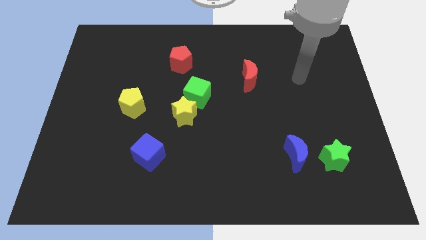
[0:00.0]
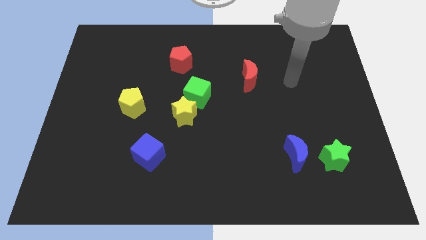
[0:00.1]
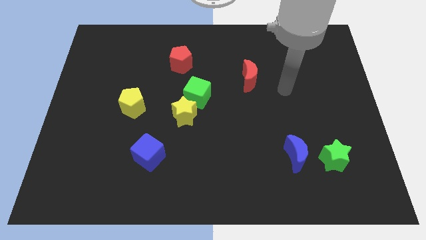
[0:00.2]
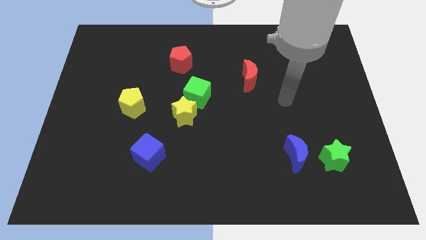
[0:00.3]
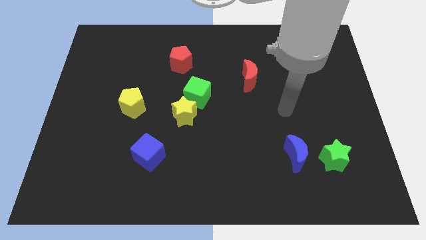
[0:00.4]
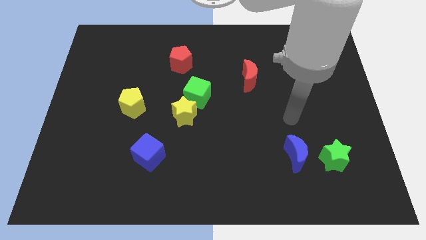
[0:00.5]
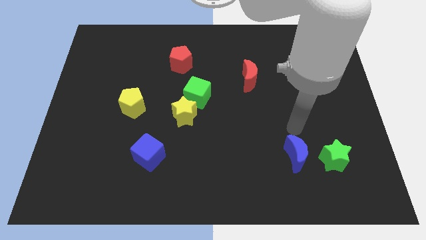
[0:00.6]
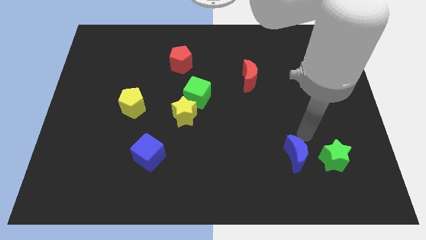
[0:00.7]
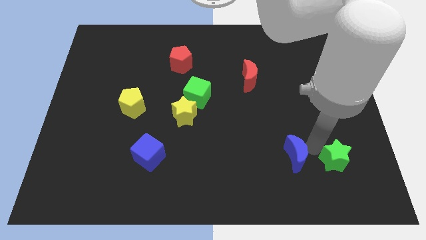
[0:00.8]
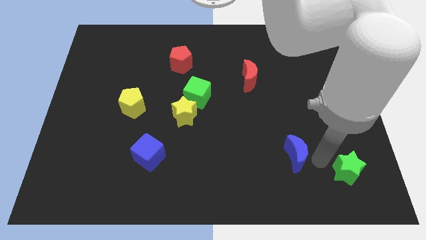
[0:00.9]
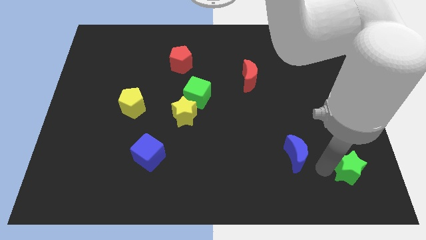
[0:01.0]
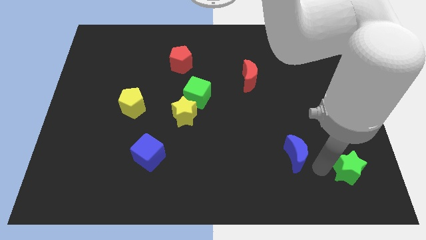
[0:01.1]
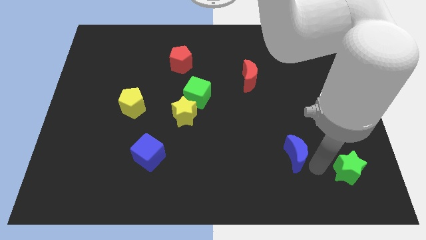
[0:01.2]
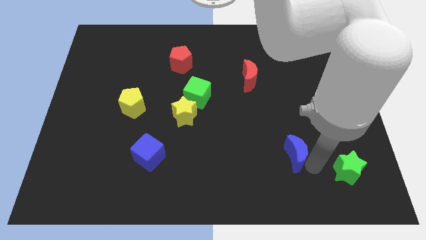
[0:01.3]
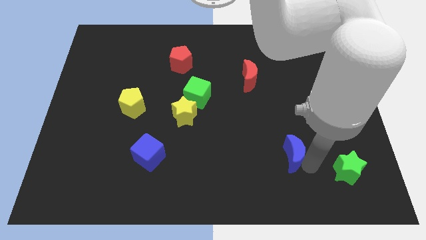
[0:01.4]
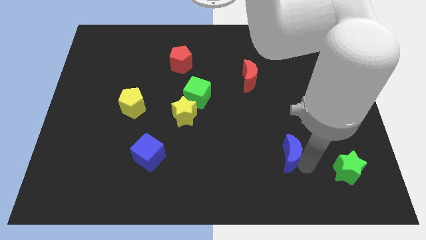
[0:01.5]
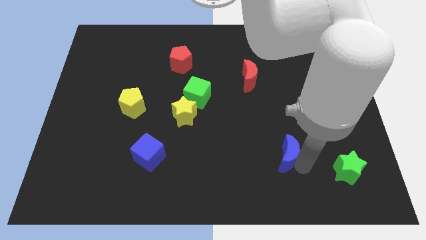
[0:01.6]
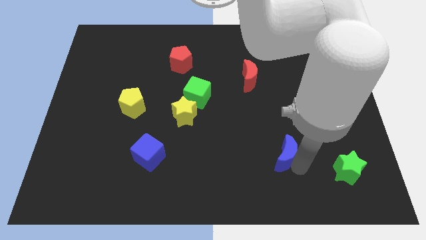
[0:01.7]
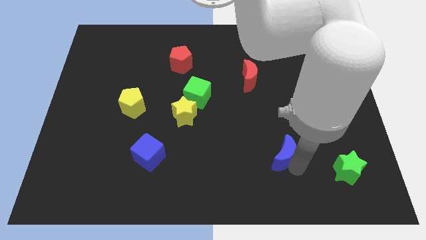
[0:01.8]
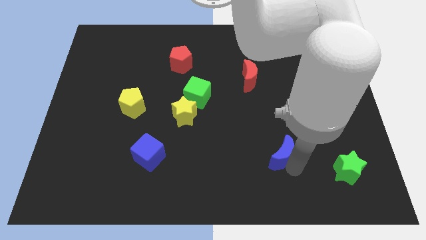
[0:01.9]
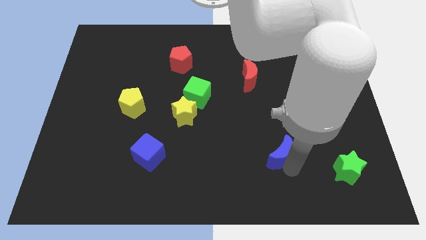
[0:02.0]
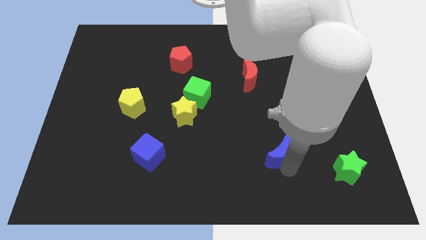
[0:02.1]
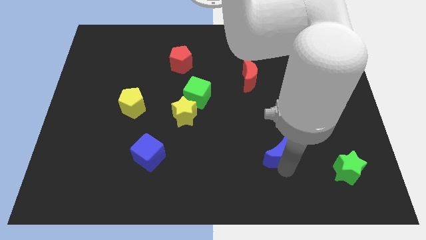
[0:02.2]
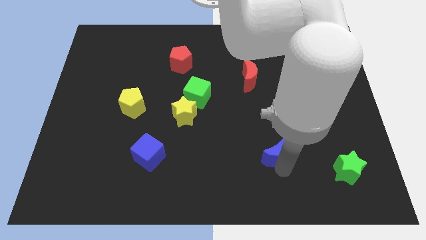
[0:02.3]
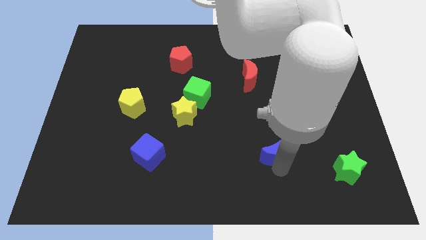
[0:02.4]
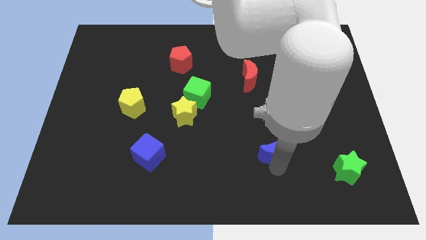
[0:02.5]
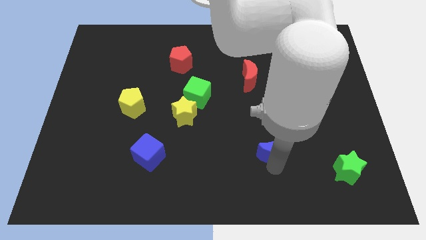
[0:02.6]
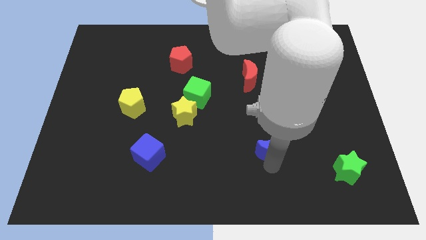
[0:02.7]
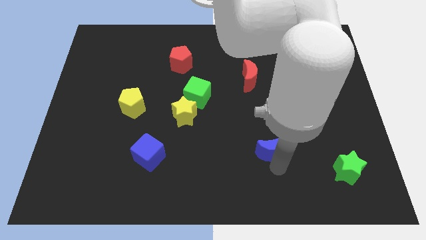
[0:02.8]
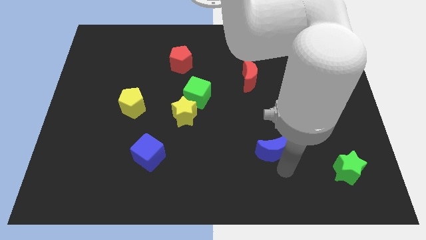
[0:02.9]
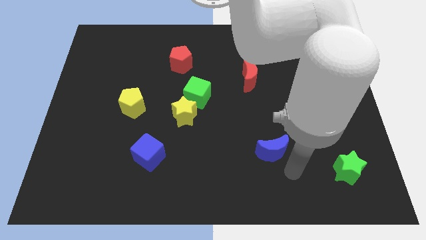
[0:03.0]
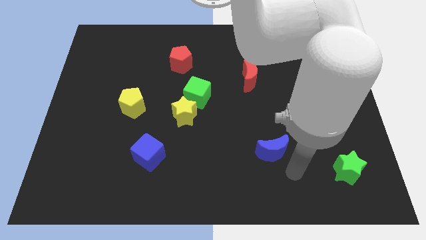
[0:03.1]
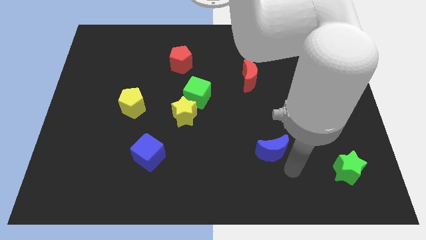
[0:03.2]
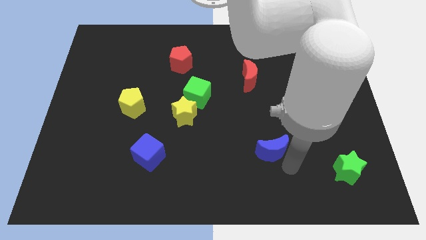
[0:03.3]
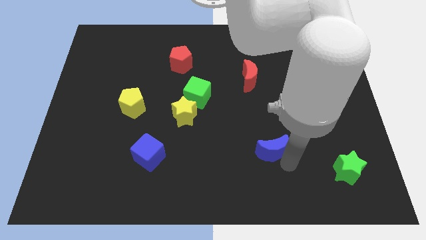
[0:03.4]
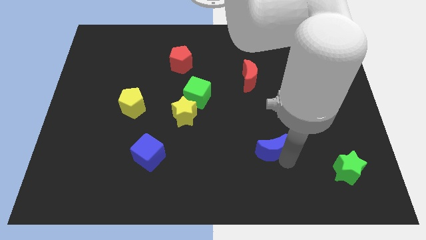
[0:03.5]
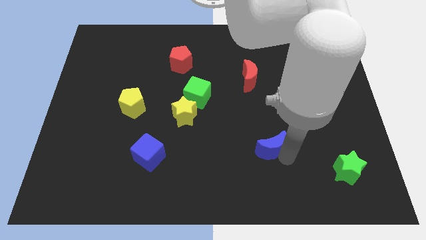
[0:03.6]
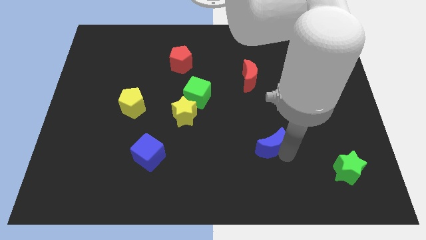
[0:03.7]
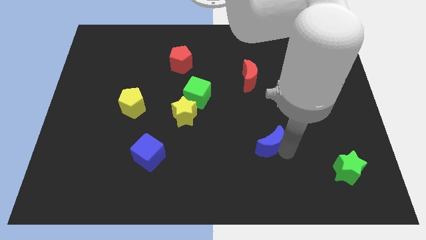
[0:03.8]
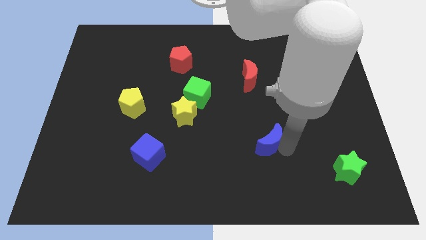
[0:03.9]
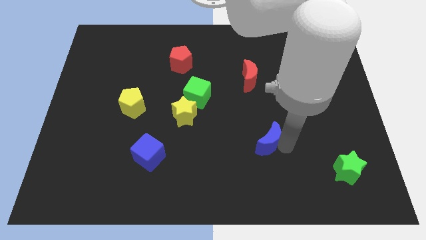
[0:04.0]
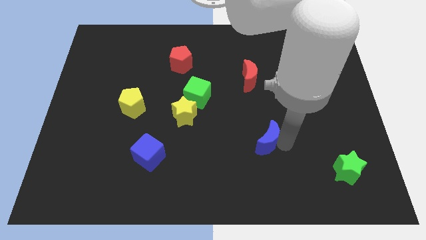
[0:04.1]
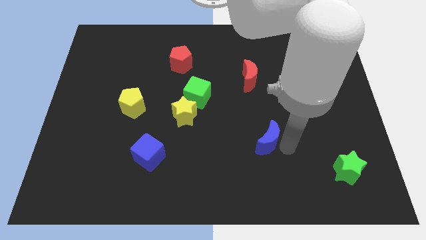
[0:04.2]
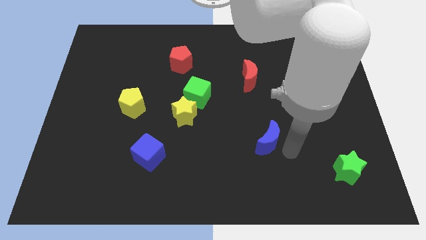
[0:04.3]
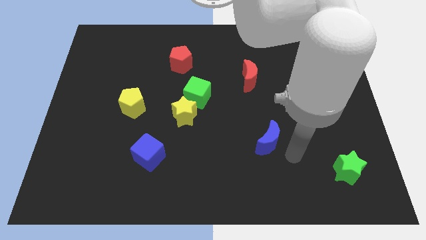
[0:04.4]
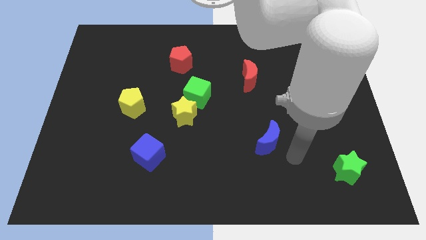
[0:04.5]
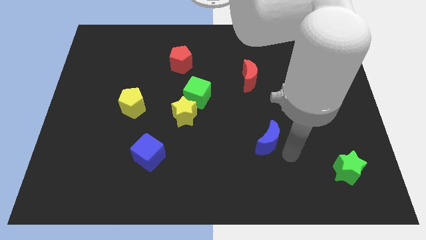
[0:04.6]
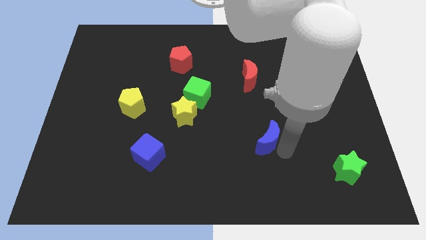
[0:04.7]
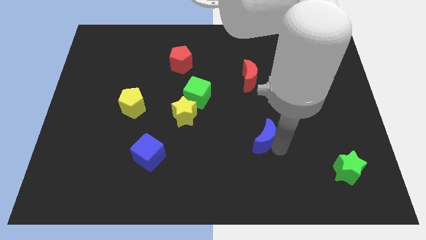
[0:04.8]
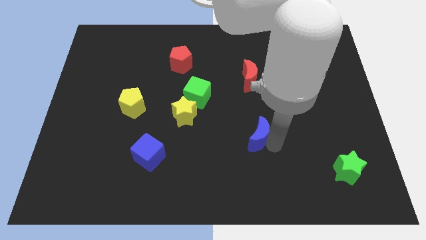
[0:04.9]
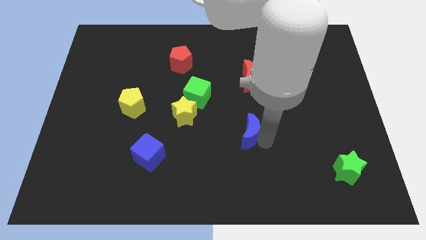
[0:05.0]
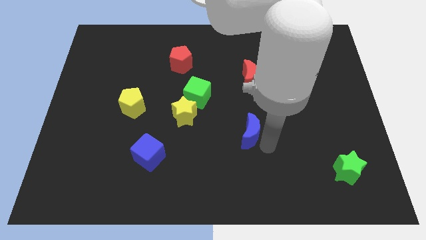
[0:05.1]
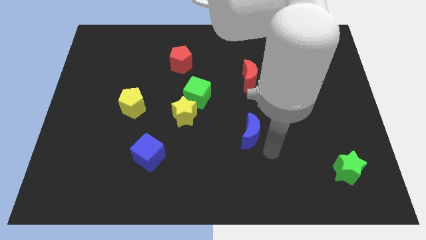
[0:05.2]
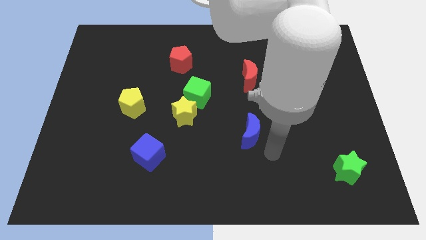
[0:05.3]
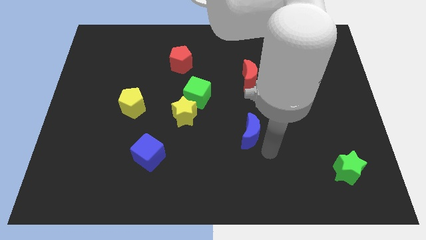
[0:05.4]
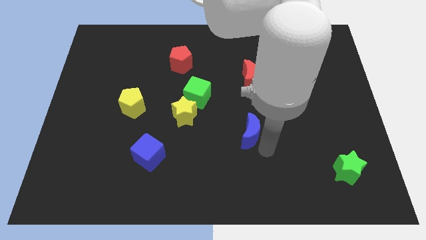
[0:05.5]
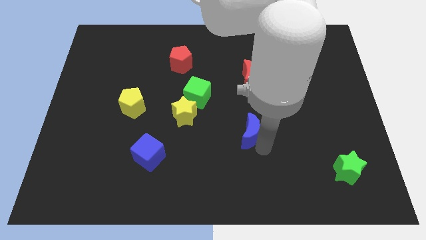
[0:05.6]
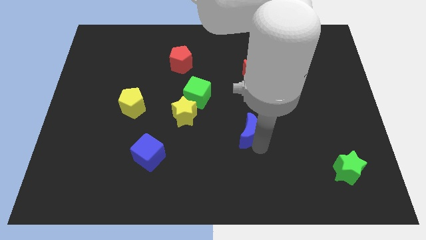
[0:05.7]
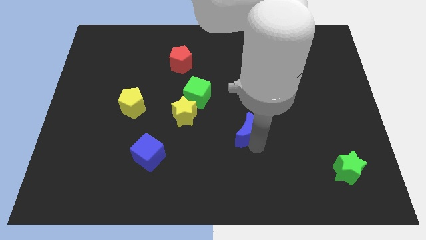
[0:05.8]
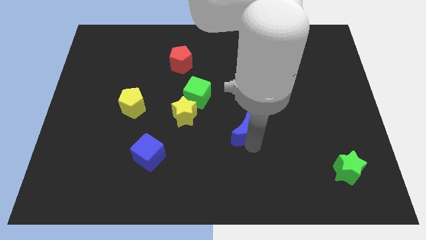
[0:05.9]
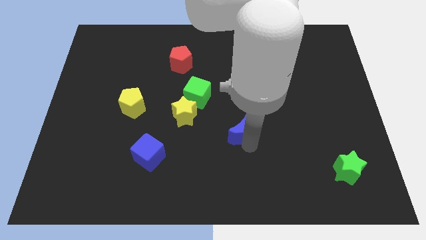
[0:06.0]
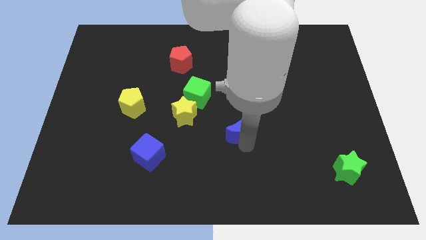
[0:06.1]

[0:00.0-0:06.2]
push the blue moon just right of the yellow star

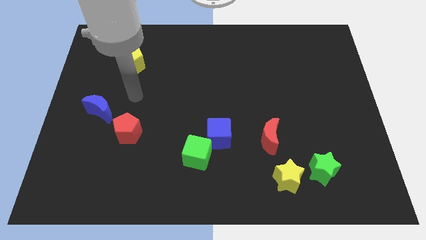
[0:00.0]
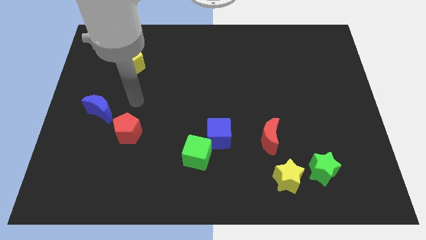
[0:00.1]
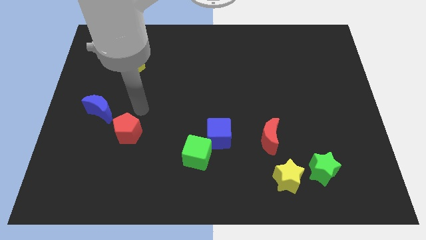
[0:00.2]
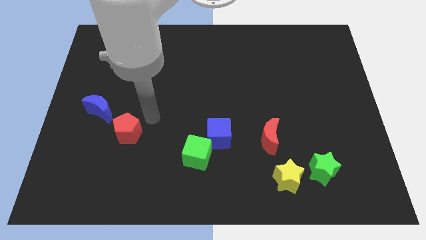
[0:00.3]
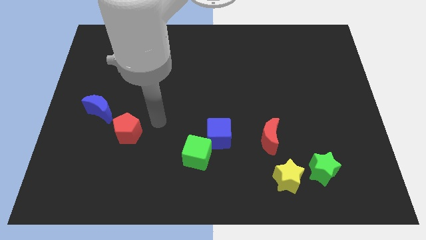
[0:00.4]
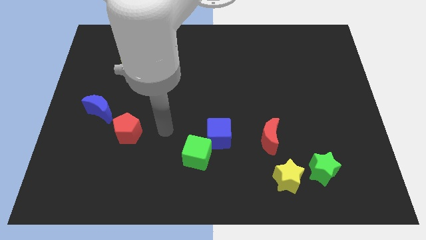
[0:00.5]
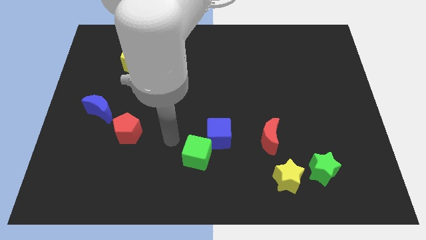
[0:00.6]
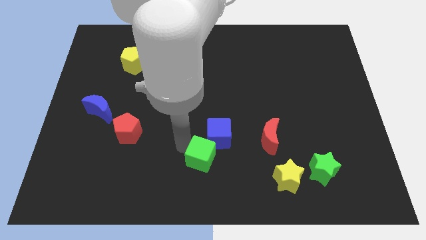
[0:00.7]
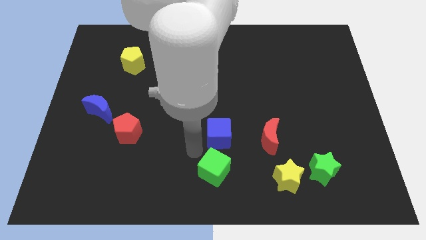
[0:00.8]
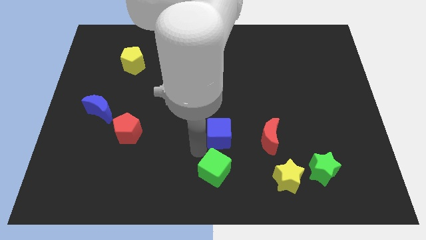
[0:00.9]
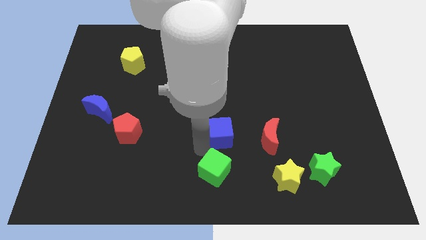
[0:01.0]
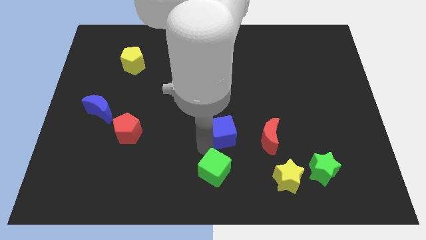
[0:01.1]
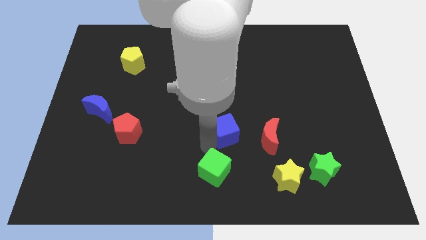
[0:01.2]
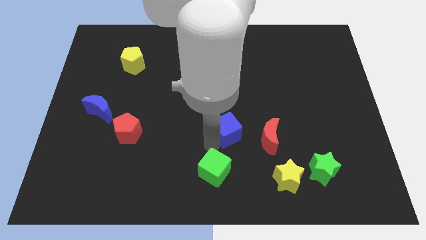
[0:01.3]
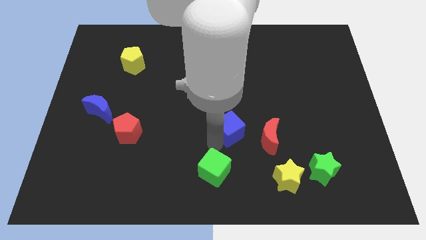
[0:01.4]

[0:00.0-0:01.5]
slide the blue cube to the top left side of the red moon
